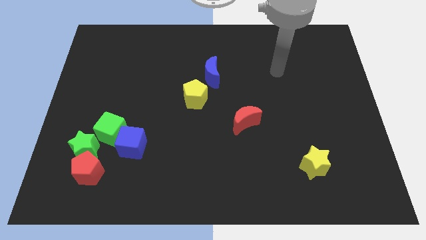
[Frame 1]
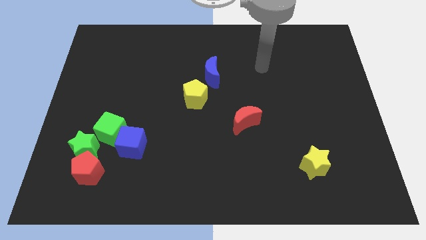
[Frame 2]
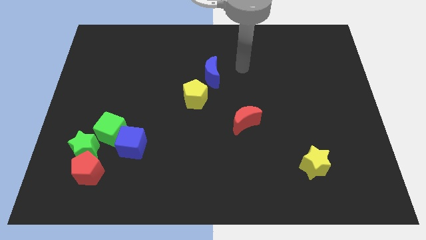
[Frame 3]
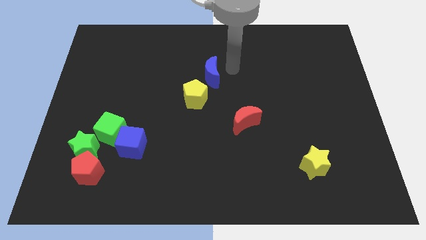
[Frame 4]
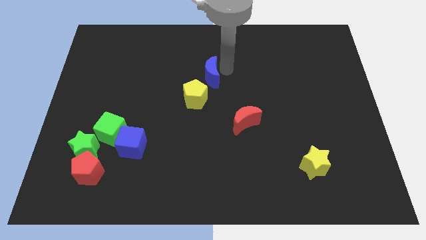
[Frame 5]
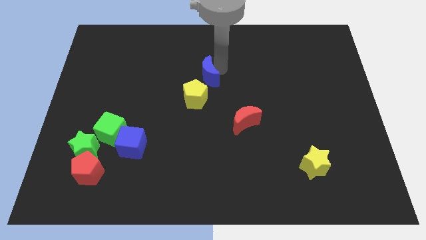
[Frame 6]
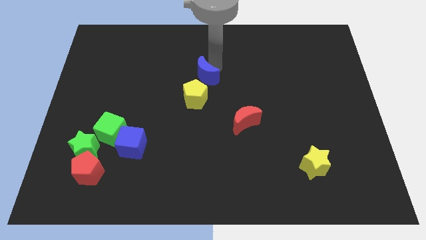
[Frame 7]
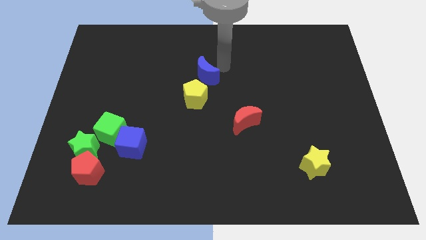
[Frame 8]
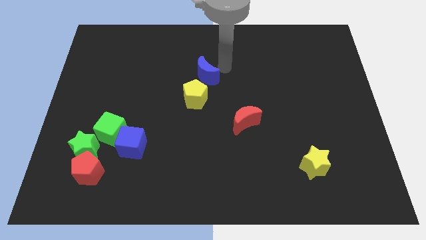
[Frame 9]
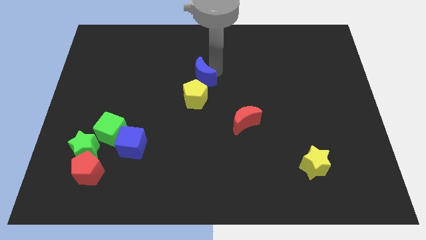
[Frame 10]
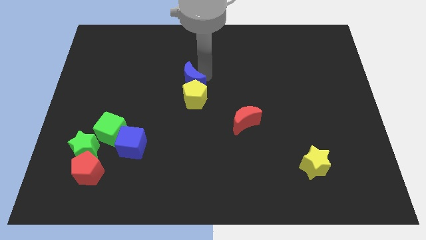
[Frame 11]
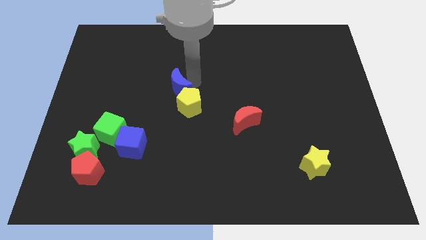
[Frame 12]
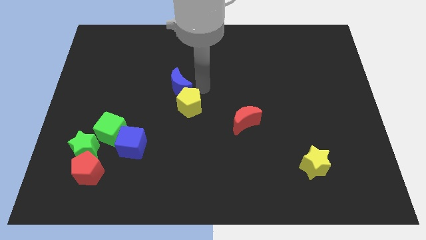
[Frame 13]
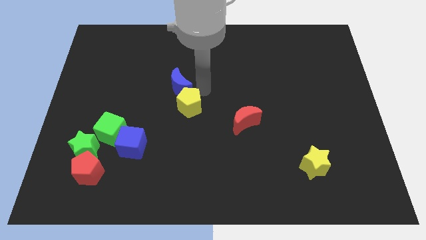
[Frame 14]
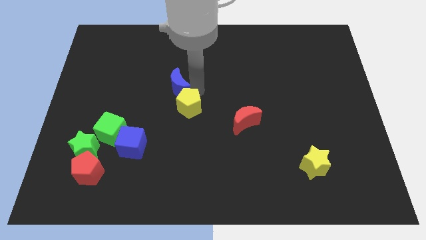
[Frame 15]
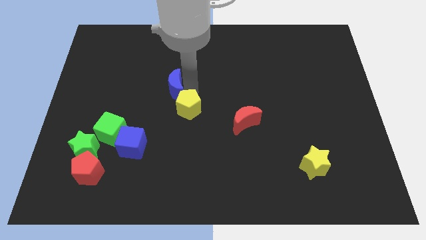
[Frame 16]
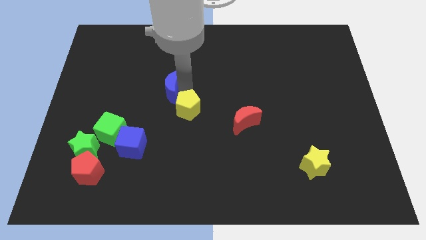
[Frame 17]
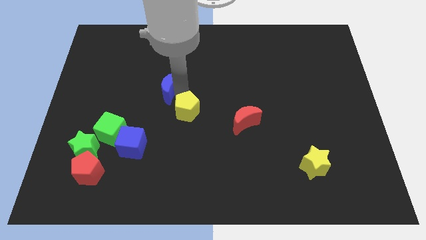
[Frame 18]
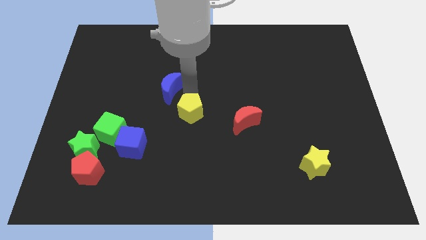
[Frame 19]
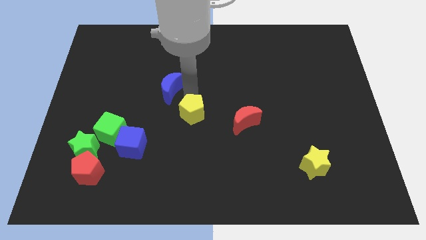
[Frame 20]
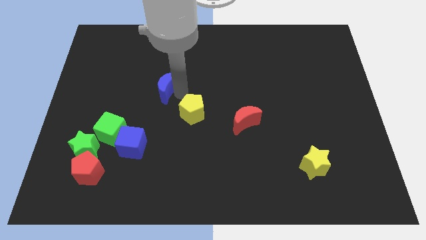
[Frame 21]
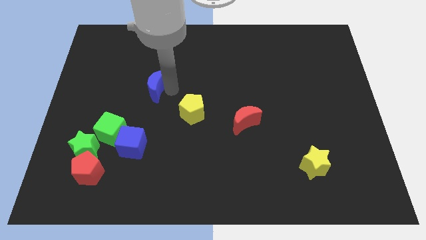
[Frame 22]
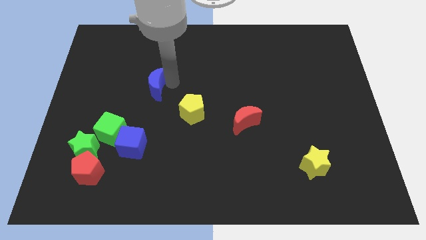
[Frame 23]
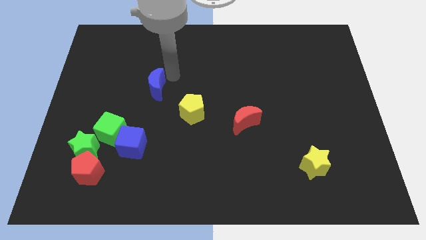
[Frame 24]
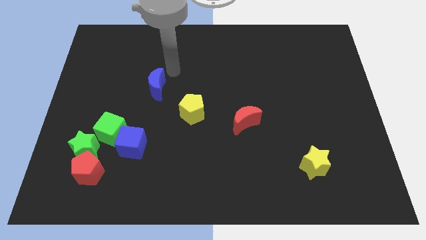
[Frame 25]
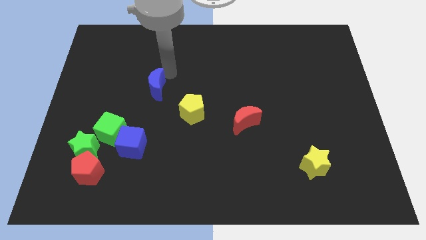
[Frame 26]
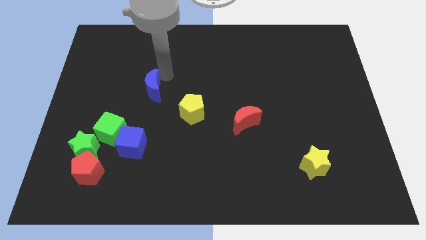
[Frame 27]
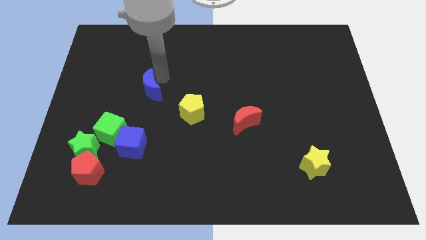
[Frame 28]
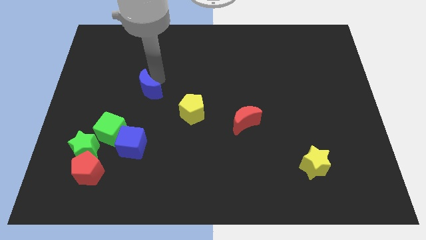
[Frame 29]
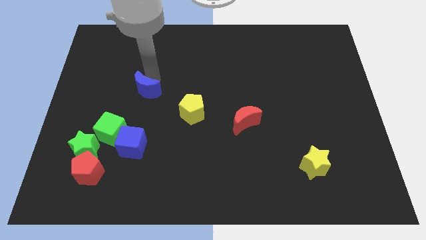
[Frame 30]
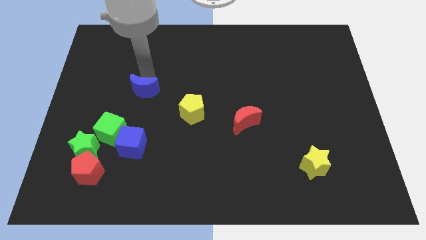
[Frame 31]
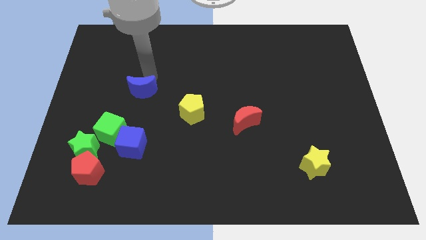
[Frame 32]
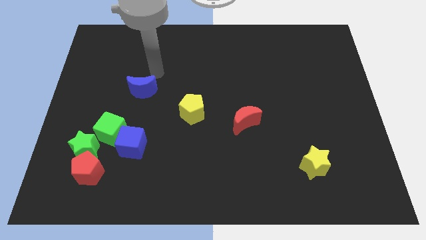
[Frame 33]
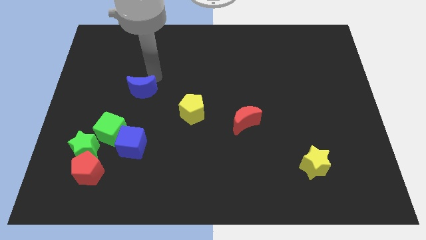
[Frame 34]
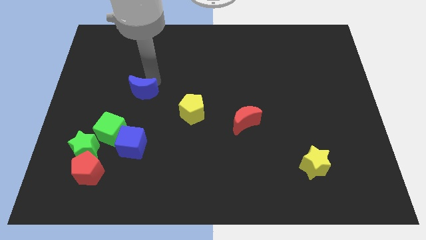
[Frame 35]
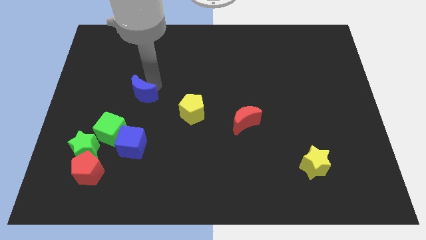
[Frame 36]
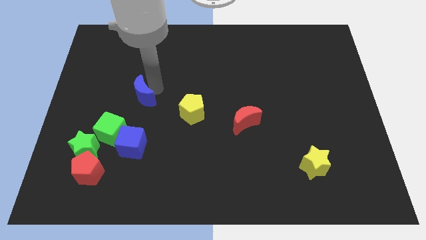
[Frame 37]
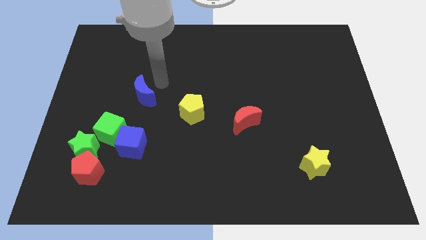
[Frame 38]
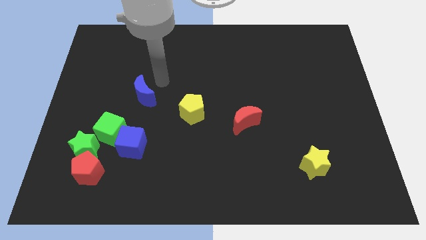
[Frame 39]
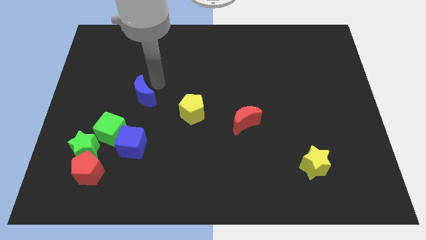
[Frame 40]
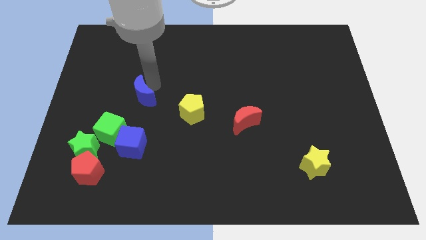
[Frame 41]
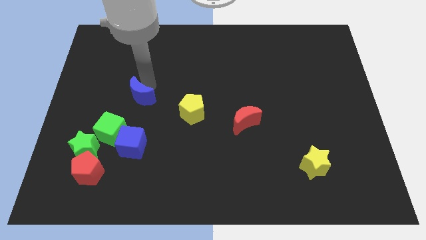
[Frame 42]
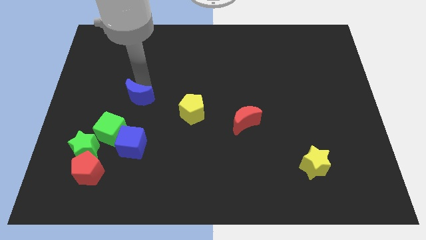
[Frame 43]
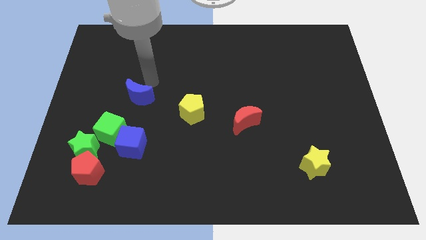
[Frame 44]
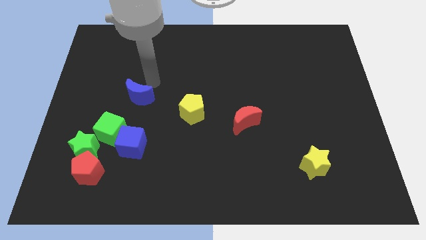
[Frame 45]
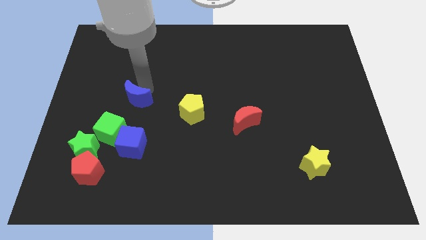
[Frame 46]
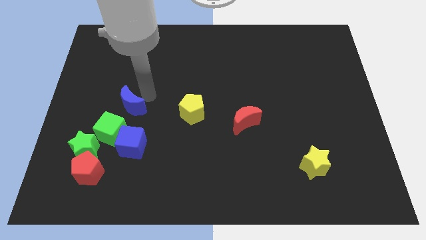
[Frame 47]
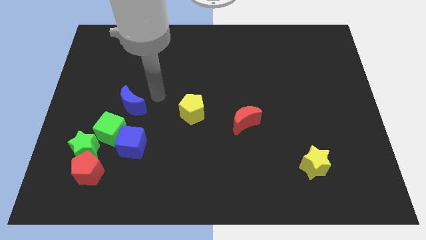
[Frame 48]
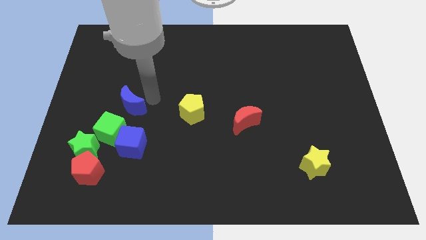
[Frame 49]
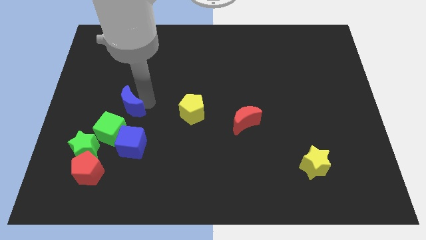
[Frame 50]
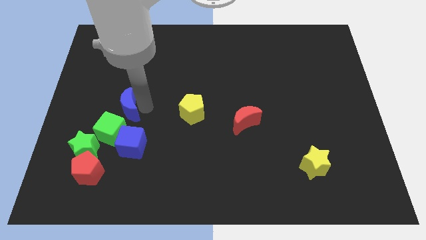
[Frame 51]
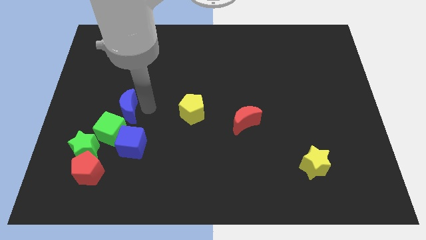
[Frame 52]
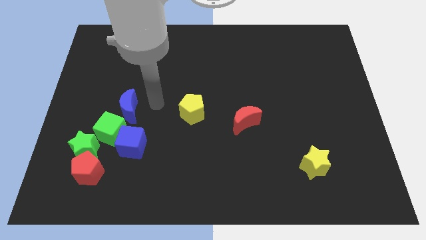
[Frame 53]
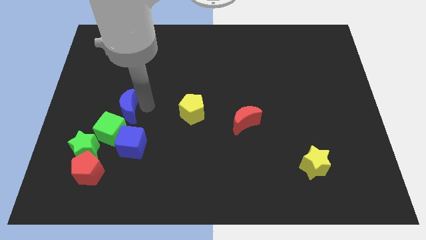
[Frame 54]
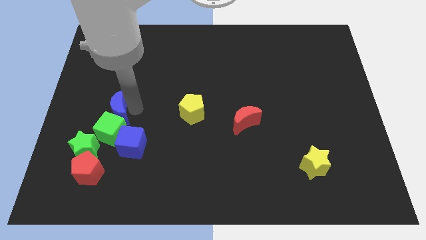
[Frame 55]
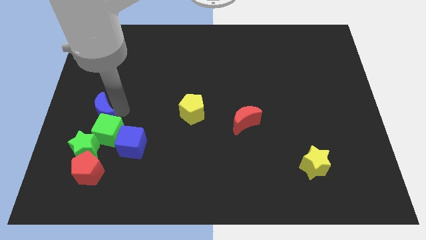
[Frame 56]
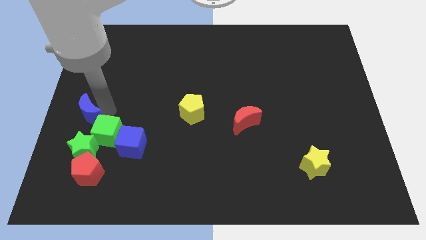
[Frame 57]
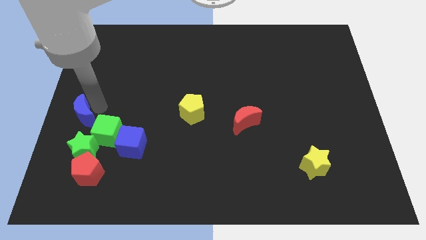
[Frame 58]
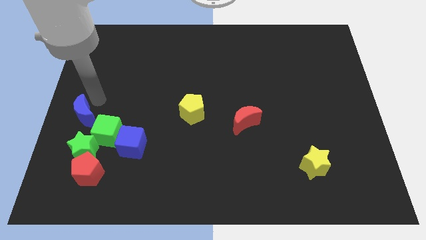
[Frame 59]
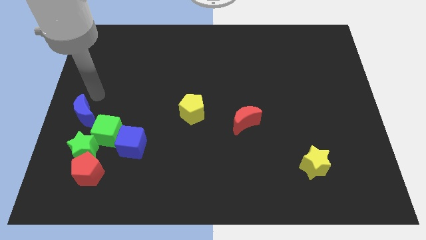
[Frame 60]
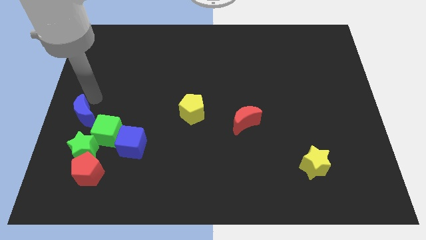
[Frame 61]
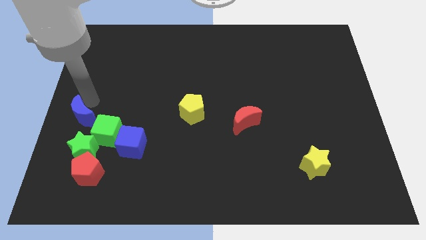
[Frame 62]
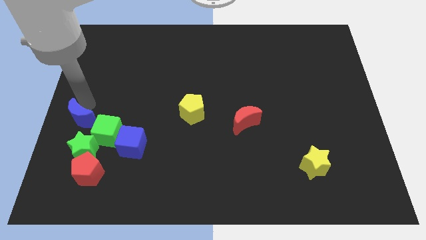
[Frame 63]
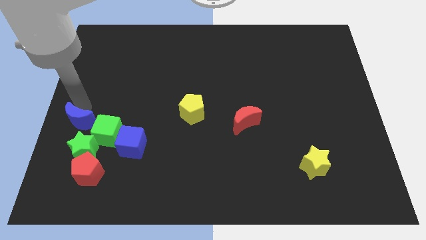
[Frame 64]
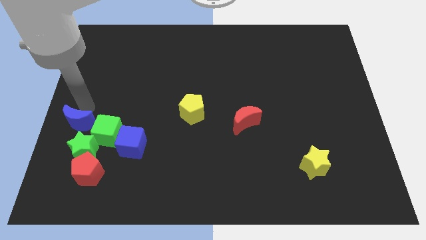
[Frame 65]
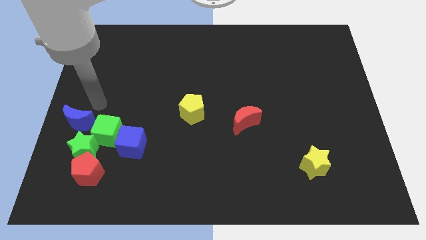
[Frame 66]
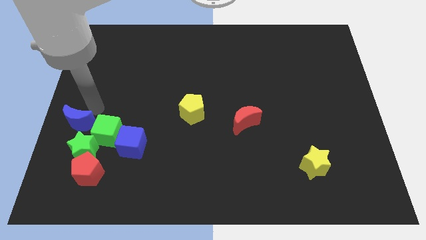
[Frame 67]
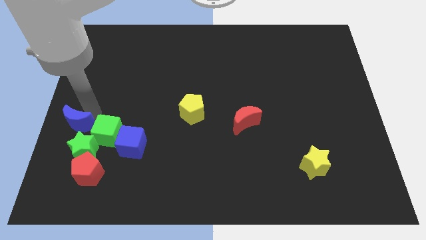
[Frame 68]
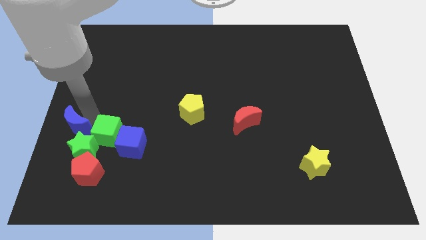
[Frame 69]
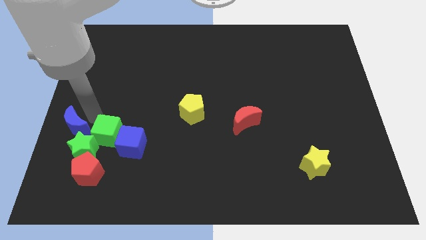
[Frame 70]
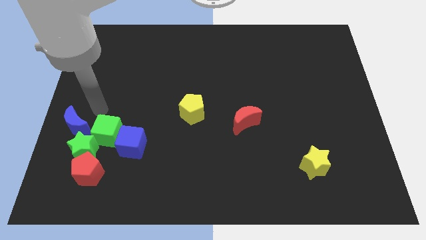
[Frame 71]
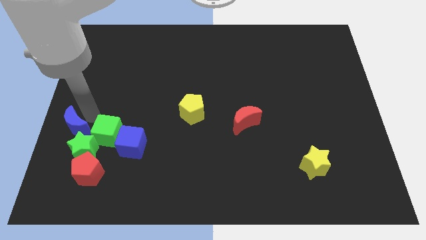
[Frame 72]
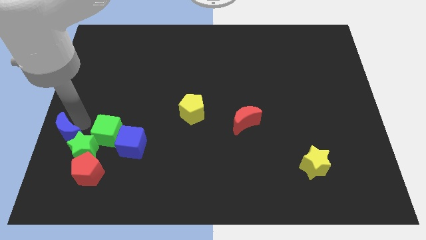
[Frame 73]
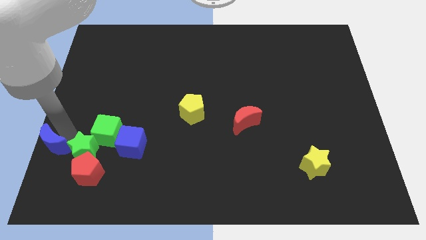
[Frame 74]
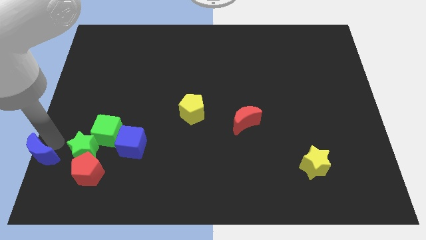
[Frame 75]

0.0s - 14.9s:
slide the blue moon to the bottom left of the board
